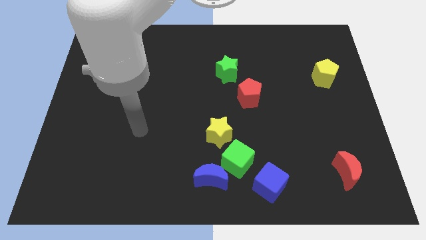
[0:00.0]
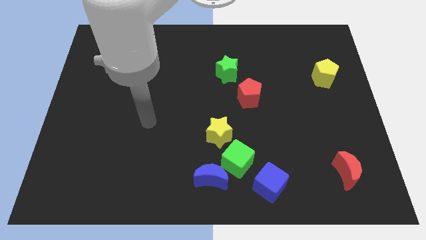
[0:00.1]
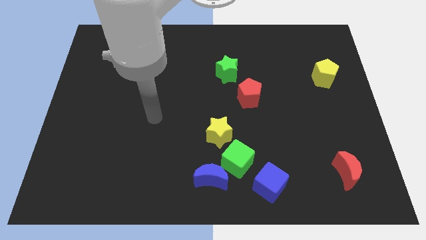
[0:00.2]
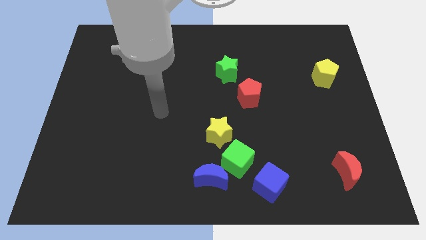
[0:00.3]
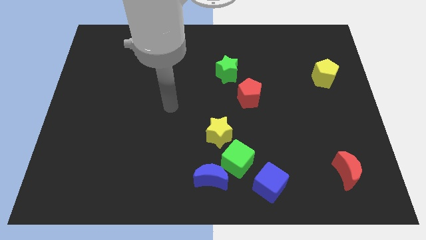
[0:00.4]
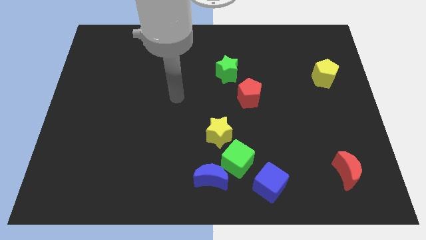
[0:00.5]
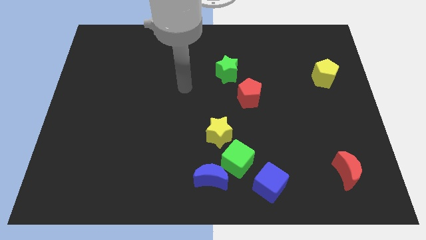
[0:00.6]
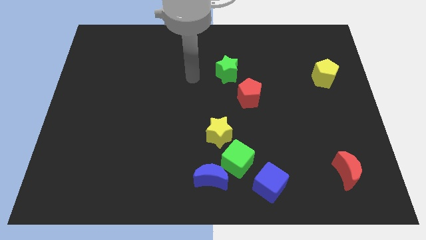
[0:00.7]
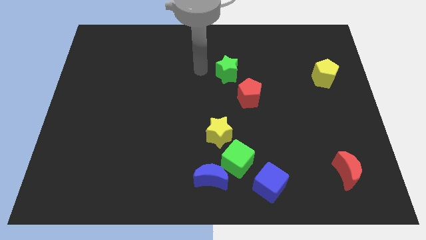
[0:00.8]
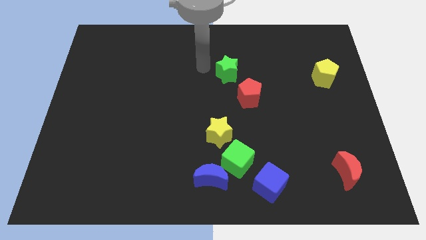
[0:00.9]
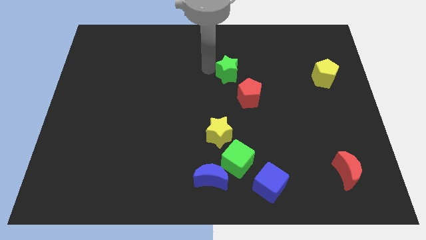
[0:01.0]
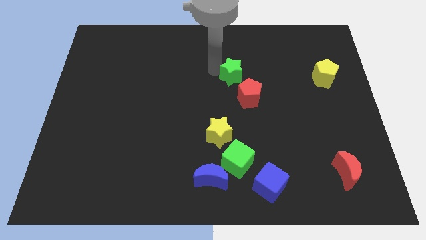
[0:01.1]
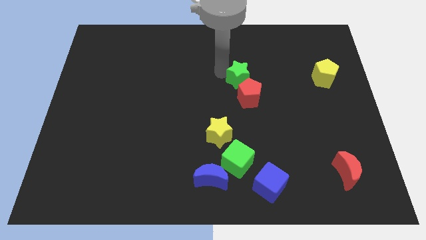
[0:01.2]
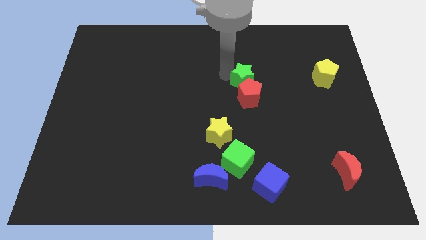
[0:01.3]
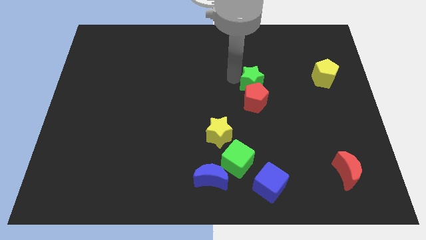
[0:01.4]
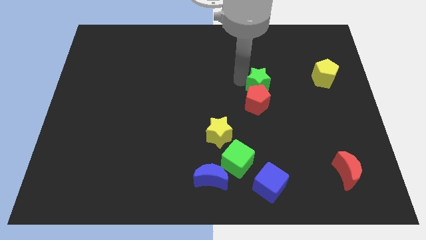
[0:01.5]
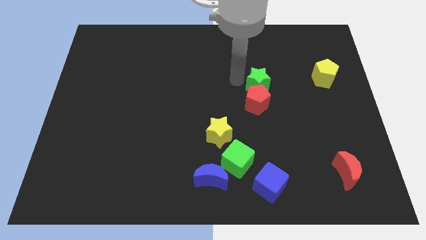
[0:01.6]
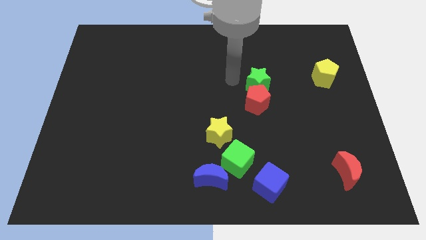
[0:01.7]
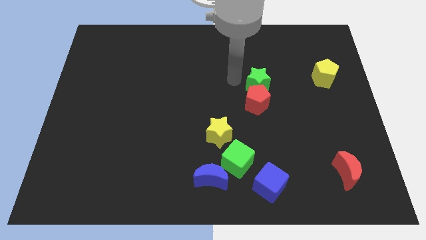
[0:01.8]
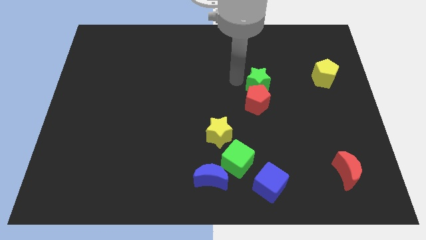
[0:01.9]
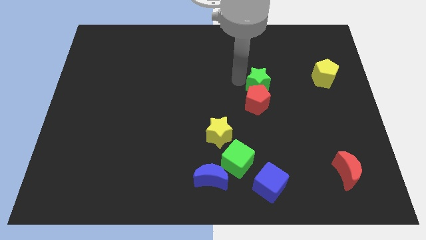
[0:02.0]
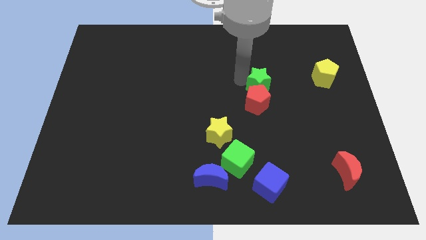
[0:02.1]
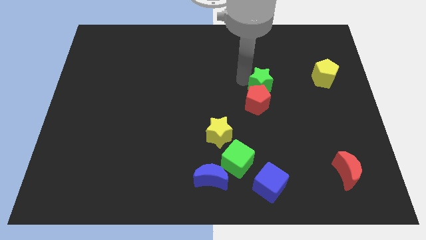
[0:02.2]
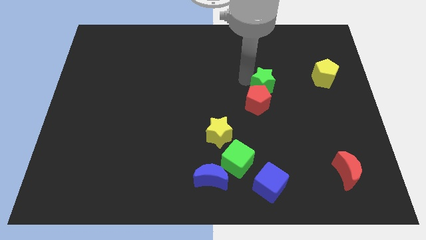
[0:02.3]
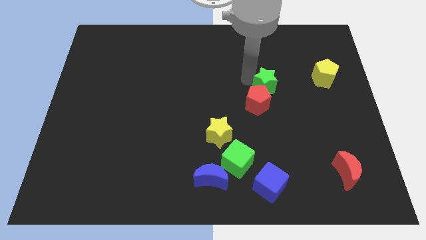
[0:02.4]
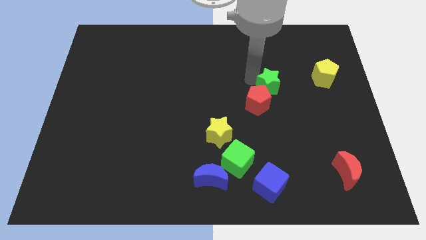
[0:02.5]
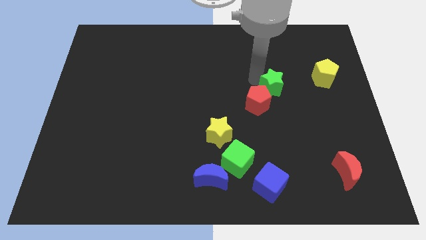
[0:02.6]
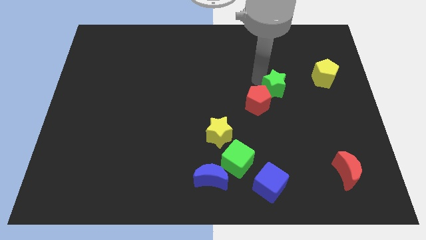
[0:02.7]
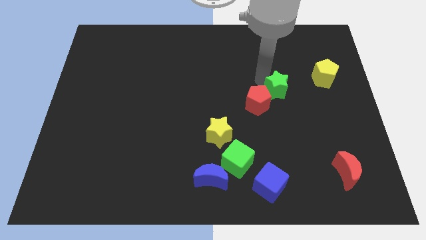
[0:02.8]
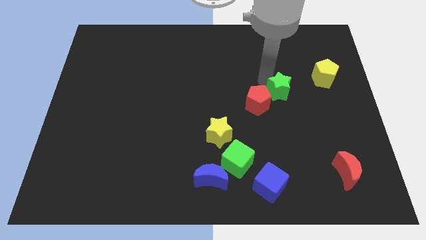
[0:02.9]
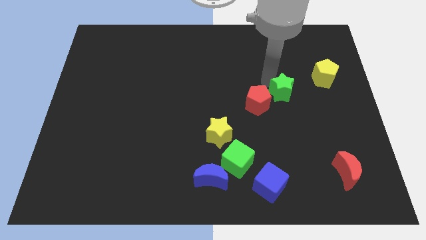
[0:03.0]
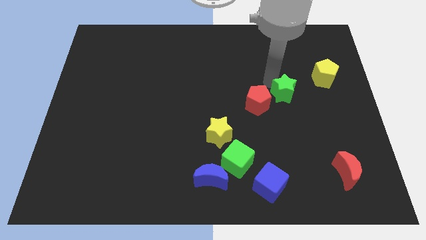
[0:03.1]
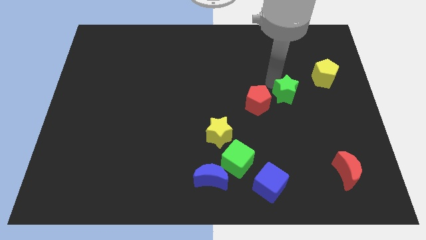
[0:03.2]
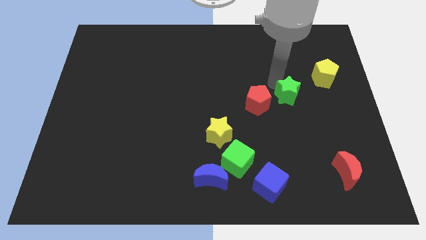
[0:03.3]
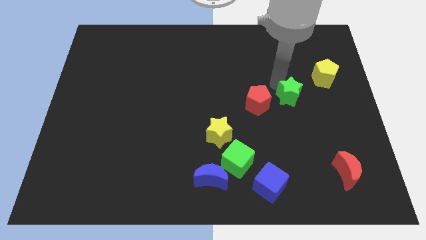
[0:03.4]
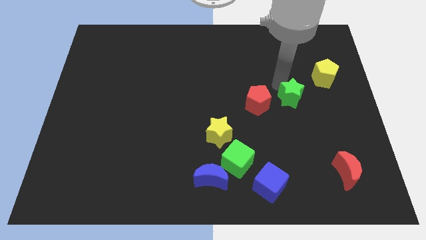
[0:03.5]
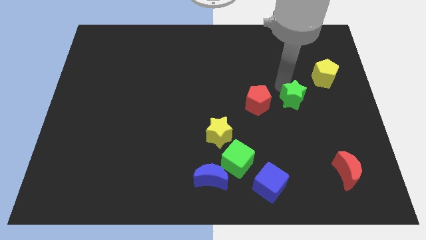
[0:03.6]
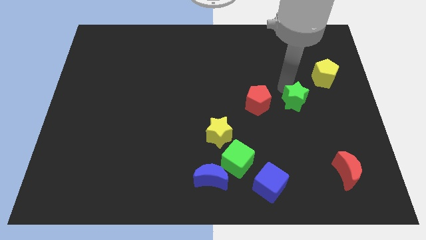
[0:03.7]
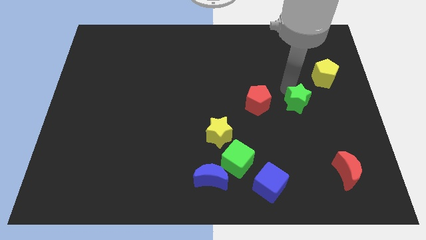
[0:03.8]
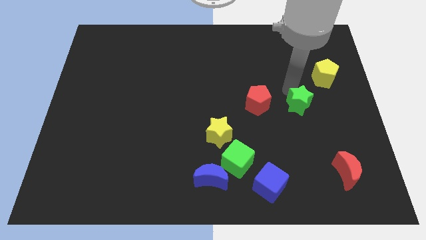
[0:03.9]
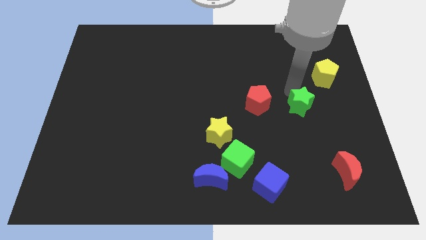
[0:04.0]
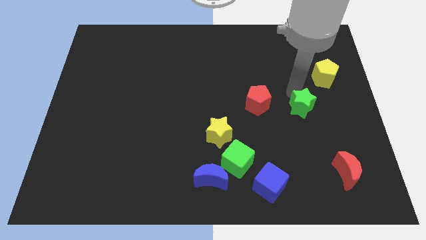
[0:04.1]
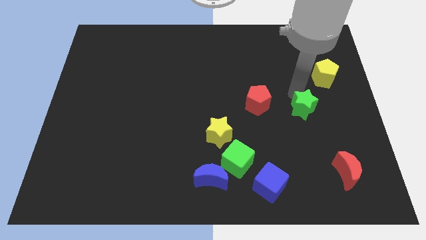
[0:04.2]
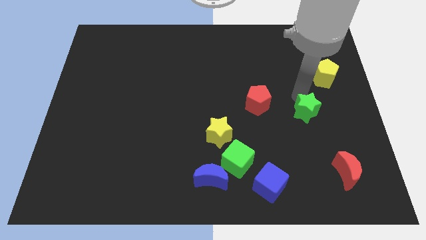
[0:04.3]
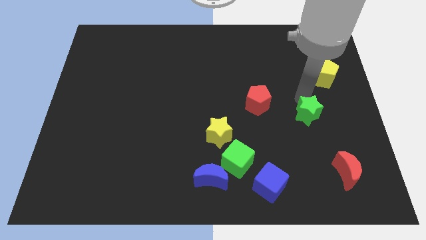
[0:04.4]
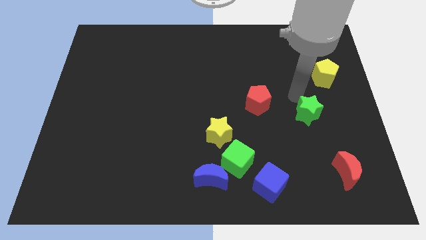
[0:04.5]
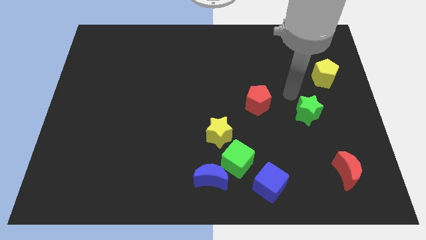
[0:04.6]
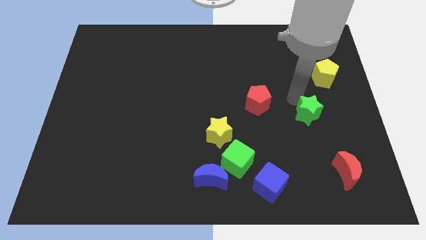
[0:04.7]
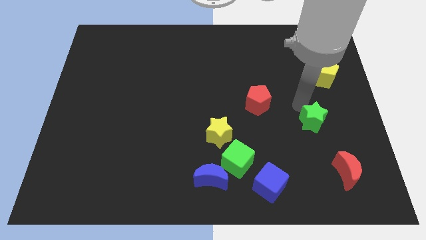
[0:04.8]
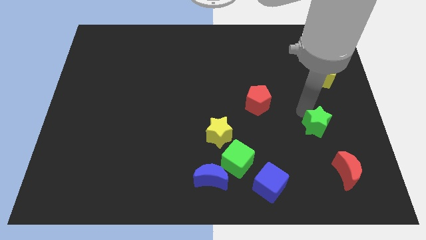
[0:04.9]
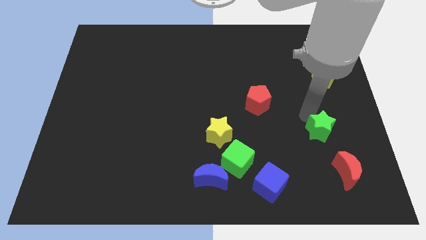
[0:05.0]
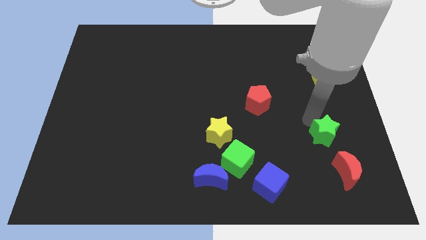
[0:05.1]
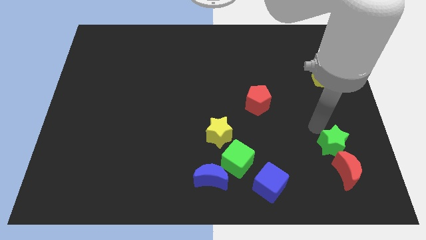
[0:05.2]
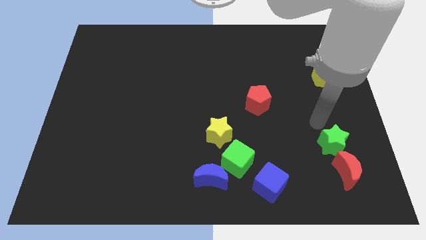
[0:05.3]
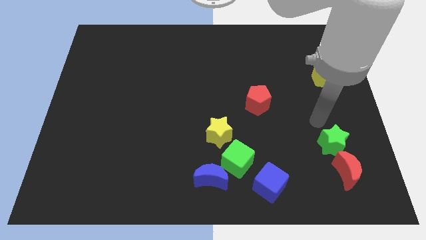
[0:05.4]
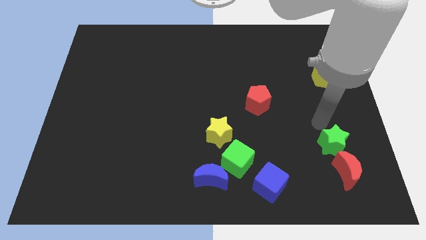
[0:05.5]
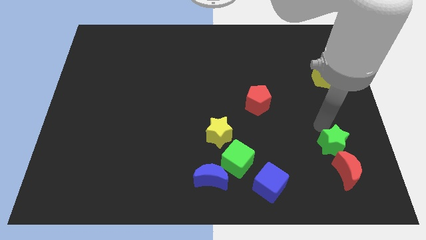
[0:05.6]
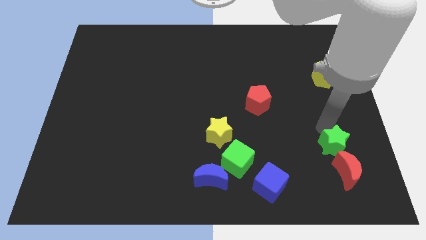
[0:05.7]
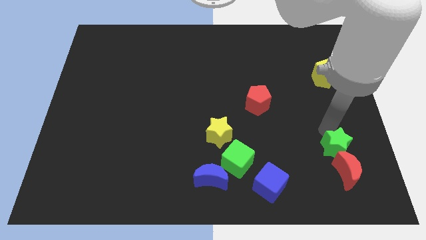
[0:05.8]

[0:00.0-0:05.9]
push the green star next to the red moon

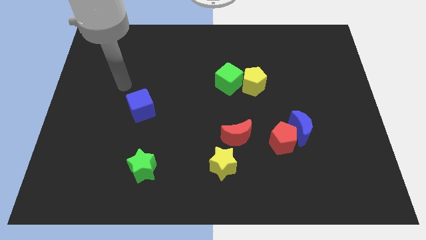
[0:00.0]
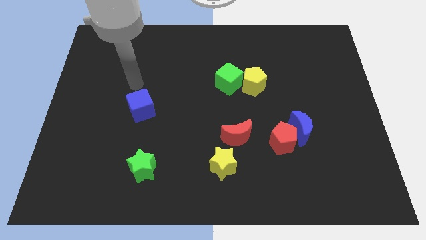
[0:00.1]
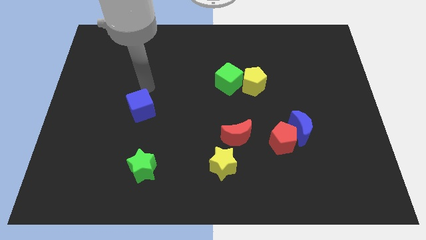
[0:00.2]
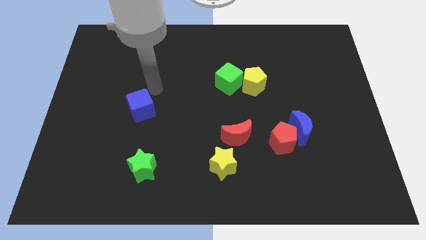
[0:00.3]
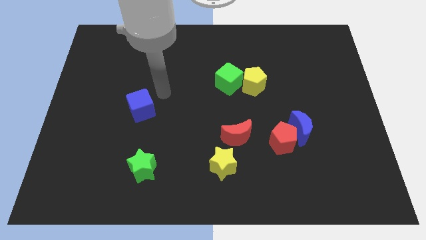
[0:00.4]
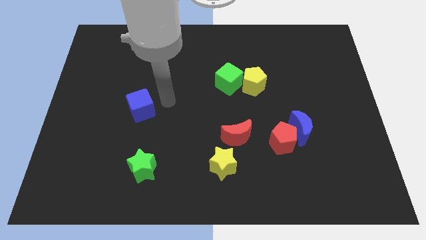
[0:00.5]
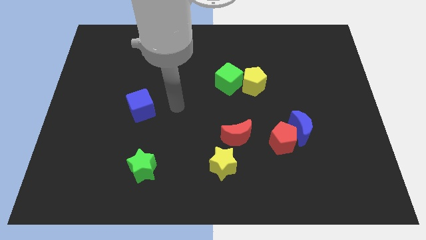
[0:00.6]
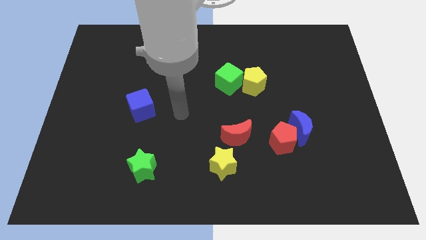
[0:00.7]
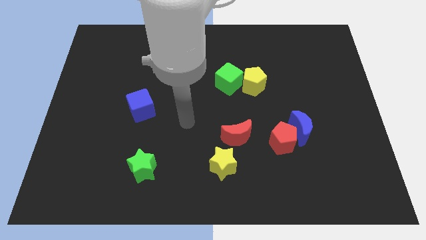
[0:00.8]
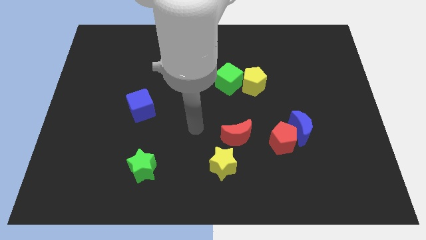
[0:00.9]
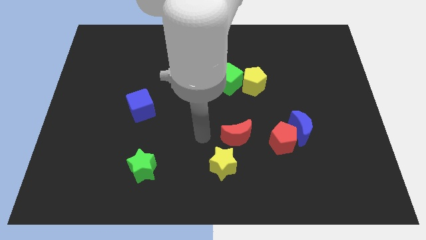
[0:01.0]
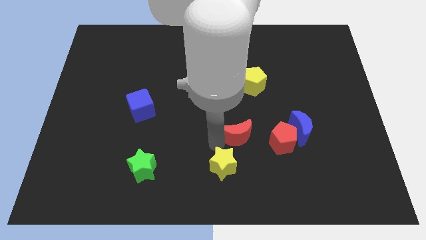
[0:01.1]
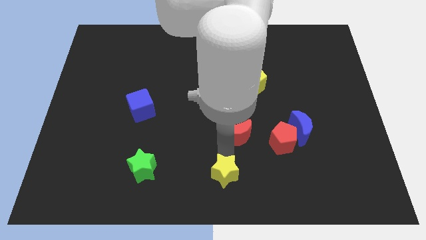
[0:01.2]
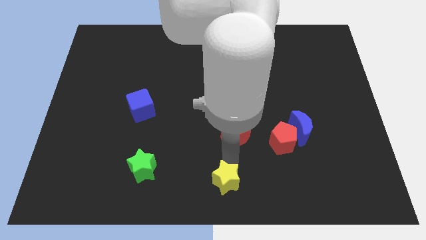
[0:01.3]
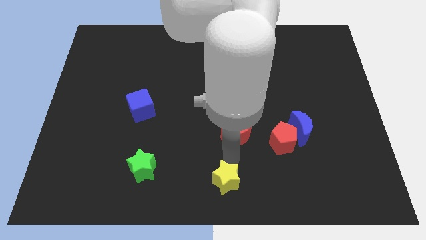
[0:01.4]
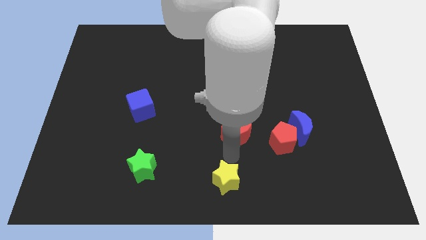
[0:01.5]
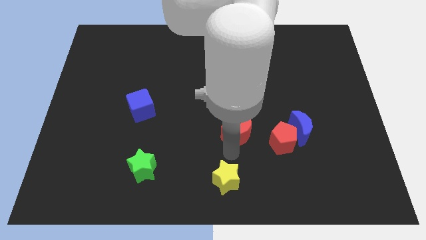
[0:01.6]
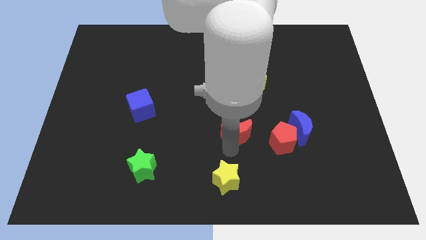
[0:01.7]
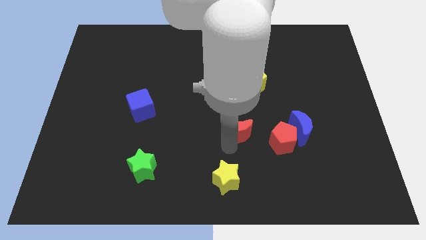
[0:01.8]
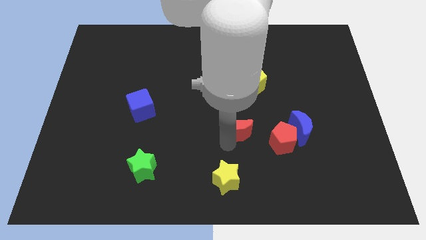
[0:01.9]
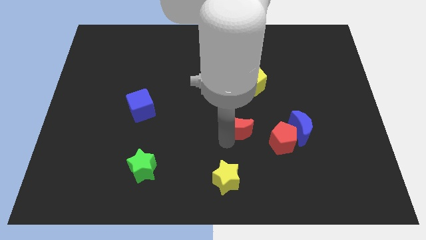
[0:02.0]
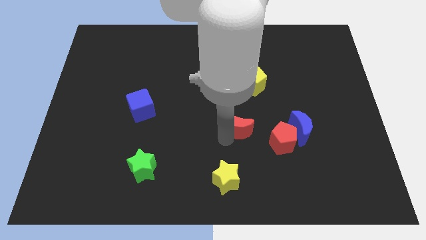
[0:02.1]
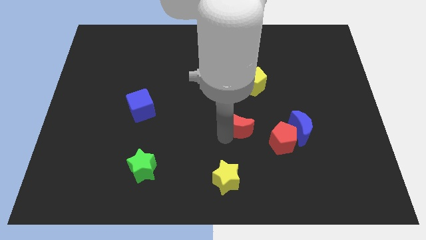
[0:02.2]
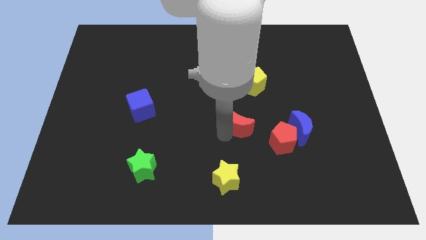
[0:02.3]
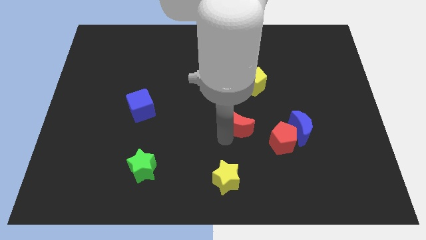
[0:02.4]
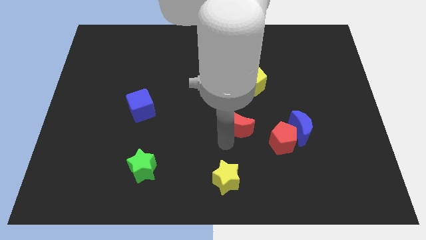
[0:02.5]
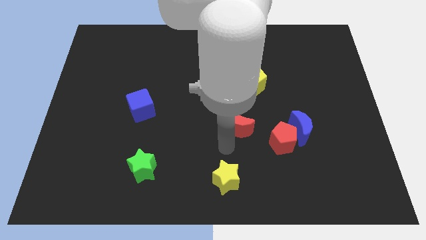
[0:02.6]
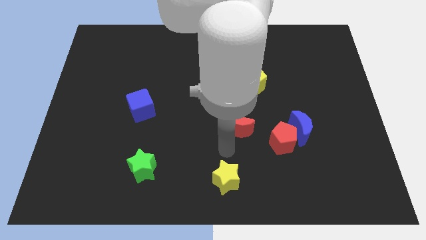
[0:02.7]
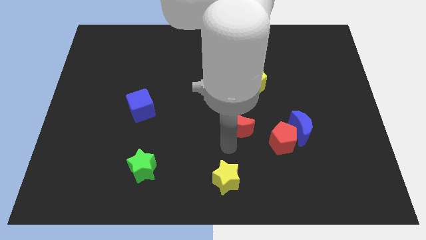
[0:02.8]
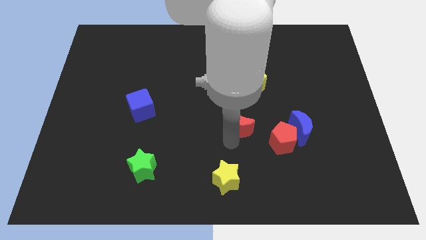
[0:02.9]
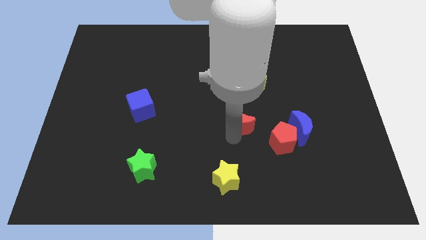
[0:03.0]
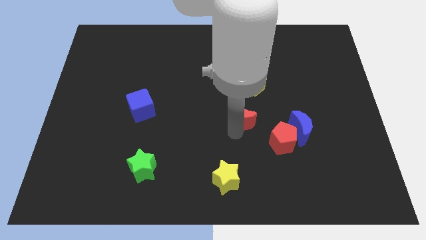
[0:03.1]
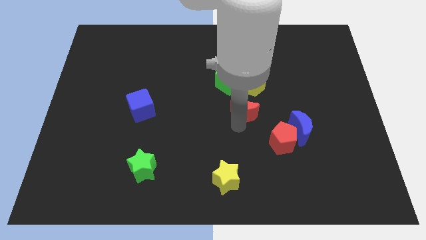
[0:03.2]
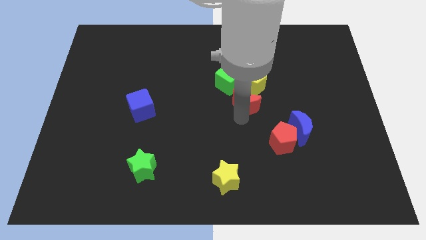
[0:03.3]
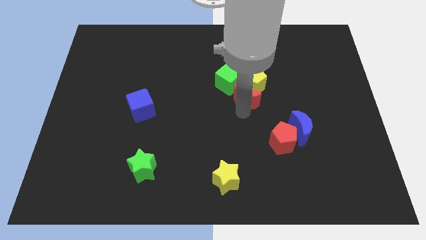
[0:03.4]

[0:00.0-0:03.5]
move the red moon towards the yellow pentagon
